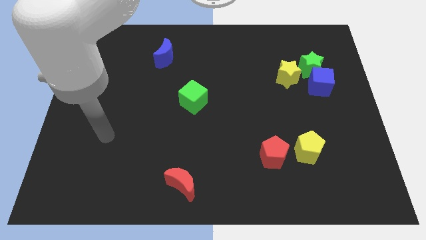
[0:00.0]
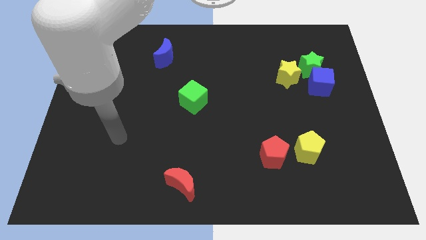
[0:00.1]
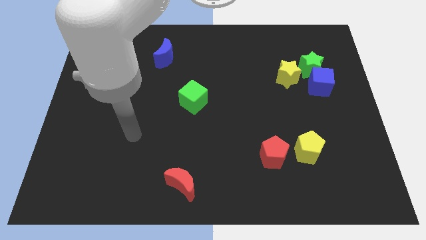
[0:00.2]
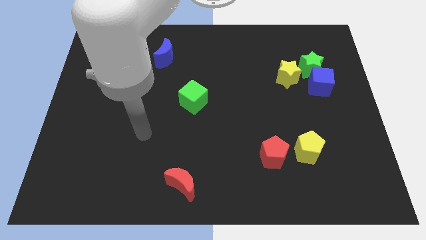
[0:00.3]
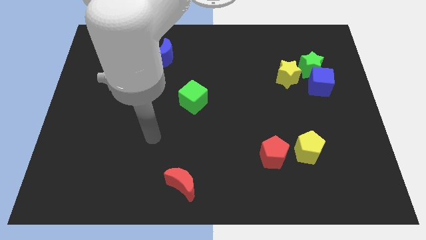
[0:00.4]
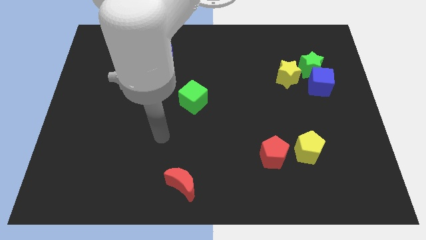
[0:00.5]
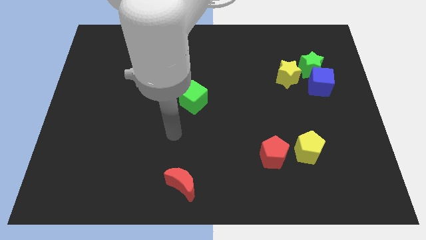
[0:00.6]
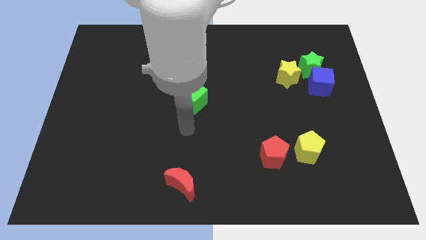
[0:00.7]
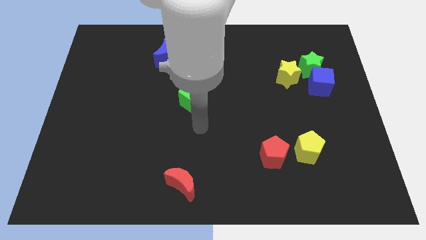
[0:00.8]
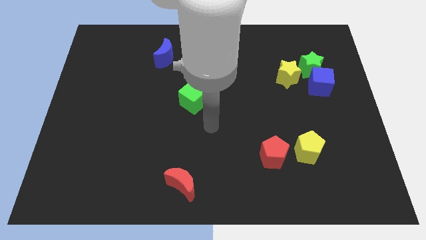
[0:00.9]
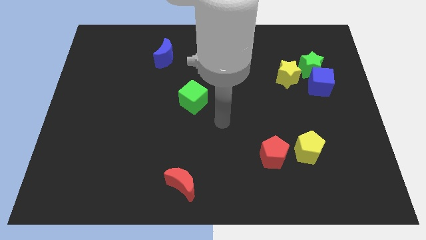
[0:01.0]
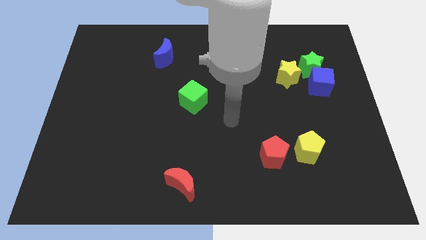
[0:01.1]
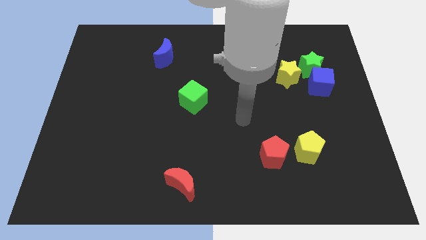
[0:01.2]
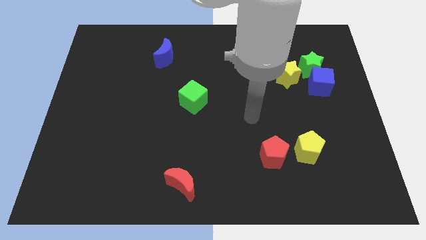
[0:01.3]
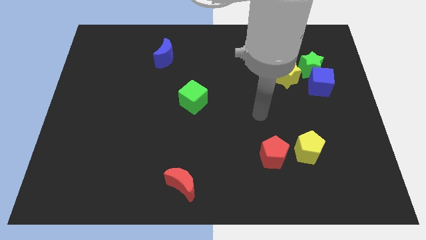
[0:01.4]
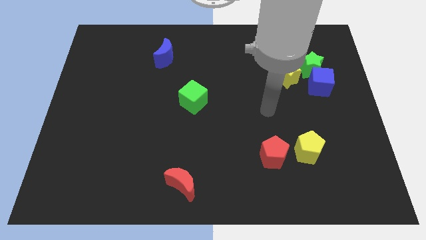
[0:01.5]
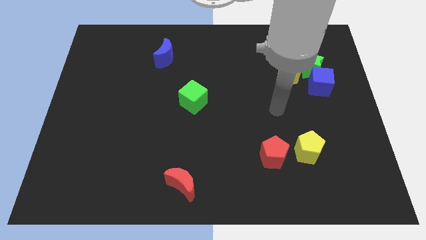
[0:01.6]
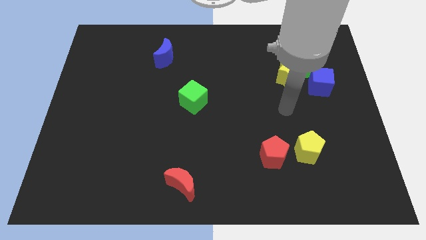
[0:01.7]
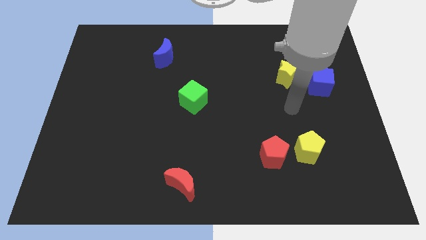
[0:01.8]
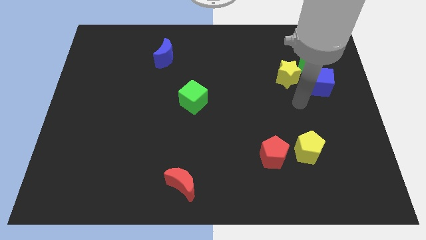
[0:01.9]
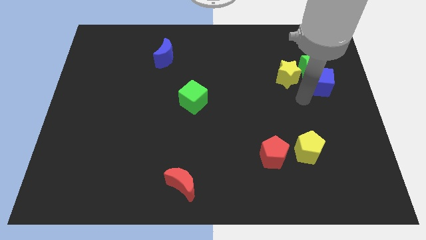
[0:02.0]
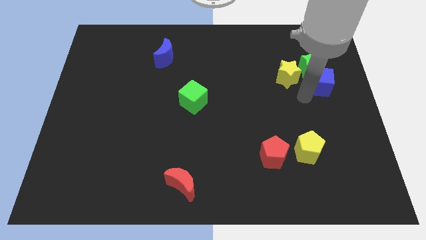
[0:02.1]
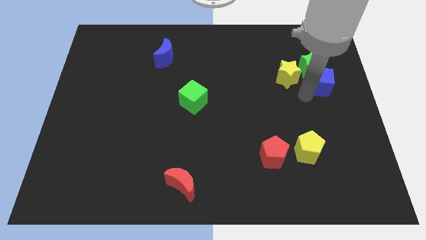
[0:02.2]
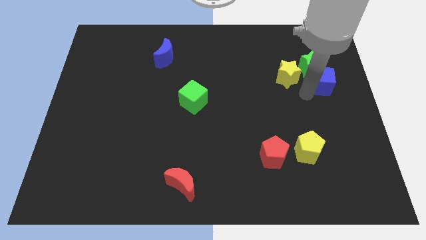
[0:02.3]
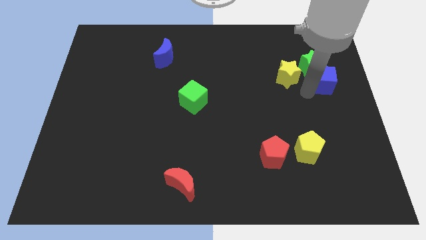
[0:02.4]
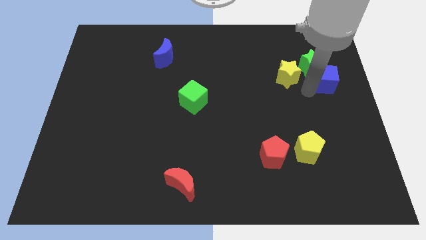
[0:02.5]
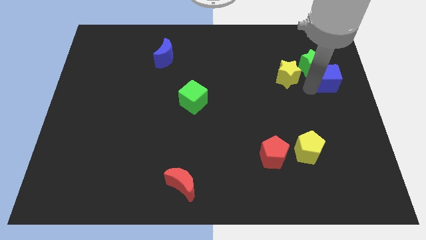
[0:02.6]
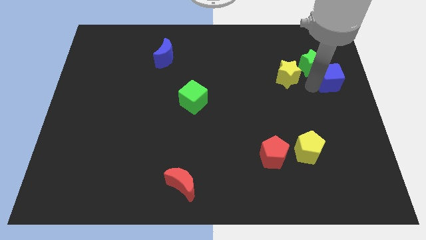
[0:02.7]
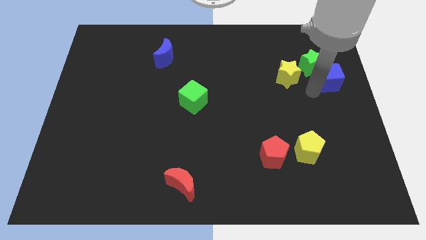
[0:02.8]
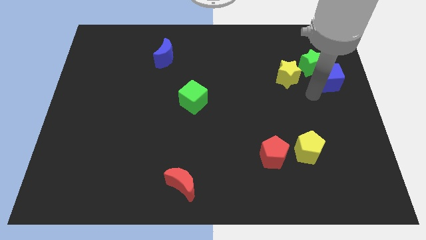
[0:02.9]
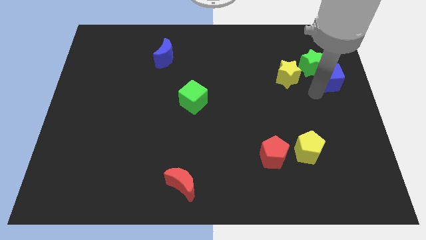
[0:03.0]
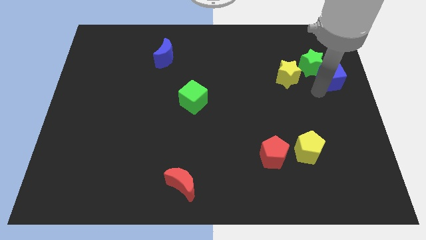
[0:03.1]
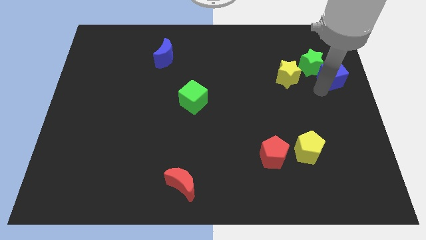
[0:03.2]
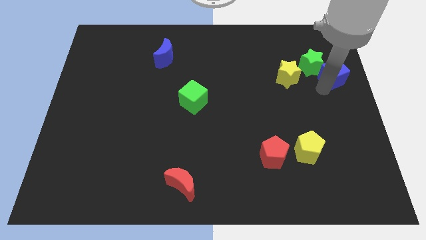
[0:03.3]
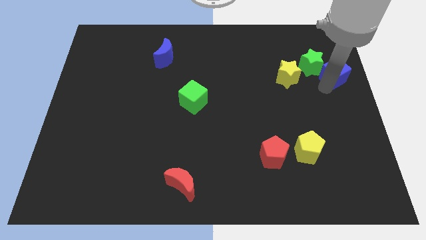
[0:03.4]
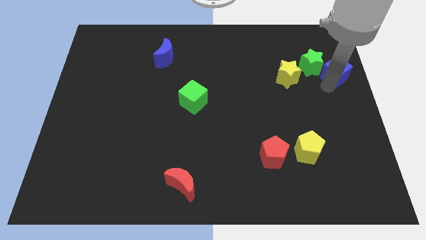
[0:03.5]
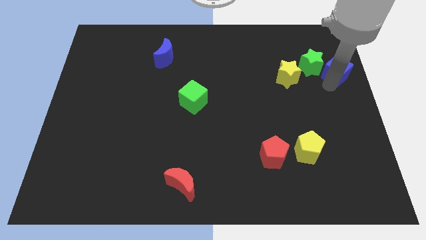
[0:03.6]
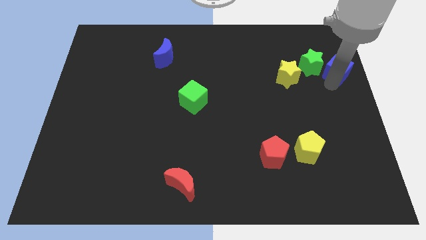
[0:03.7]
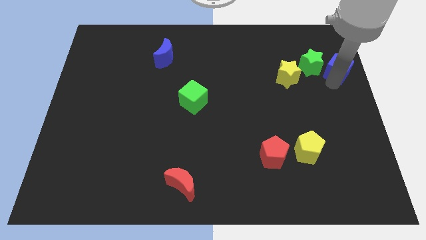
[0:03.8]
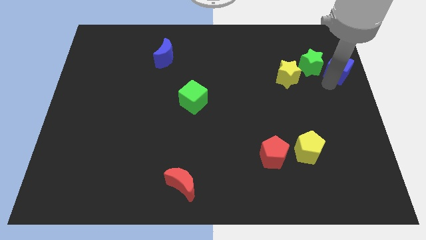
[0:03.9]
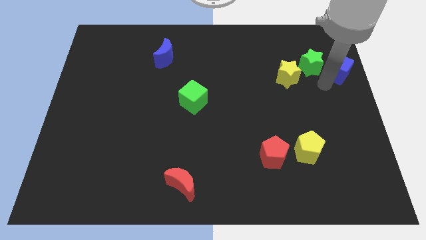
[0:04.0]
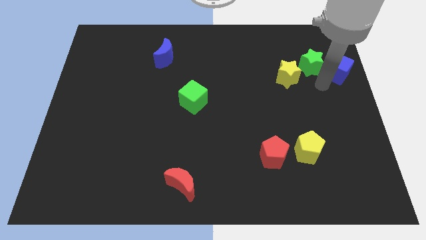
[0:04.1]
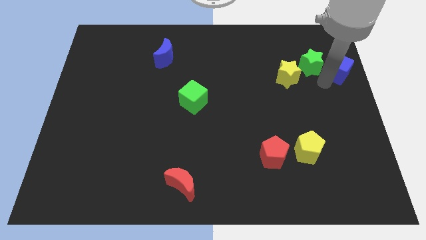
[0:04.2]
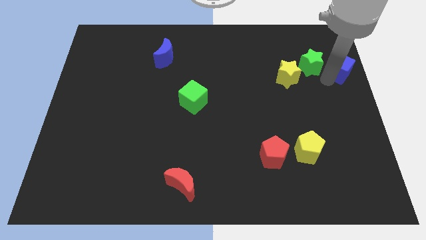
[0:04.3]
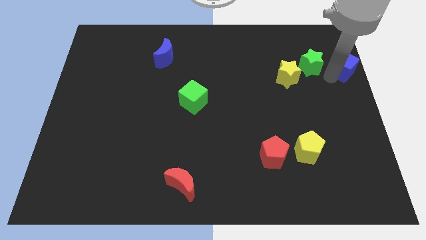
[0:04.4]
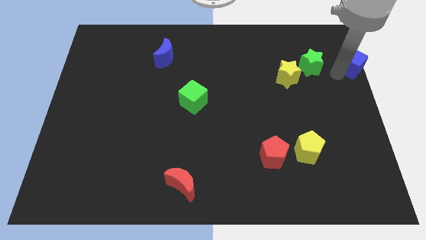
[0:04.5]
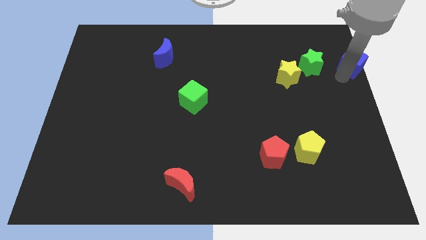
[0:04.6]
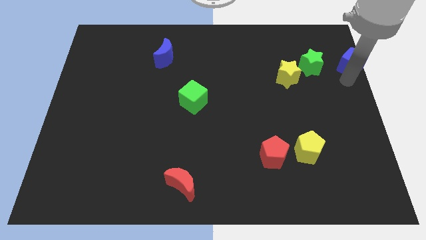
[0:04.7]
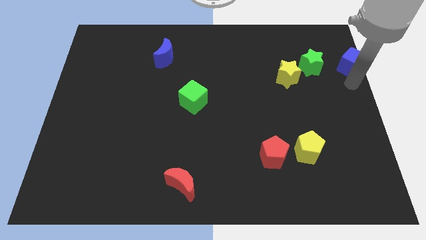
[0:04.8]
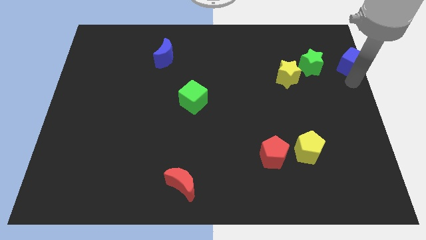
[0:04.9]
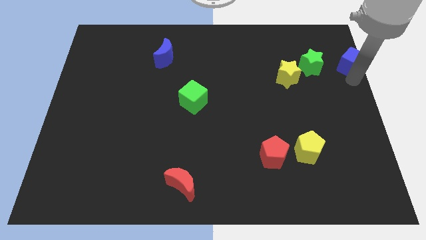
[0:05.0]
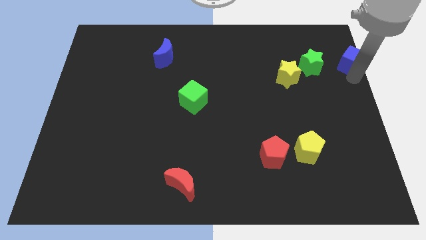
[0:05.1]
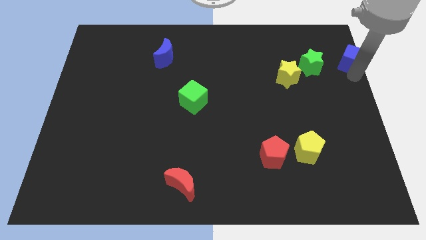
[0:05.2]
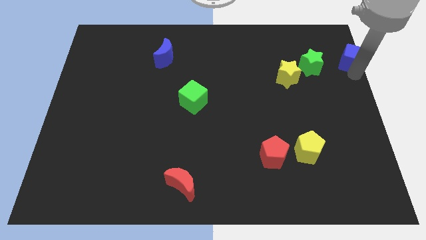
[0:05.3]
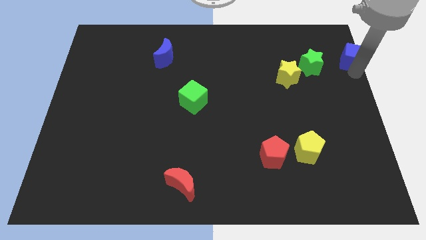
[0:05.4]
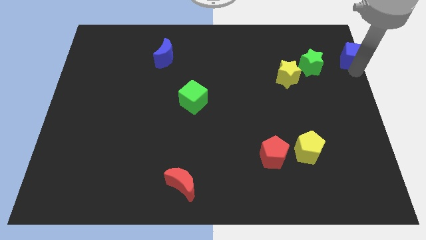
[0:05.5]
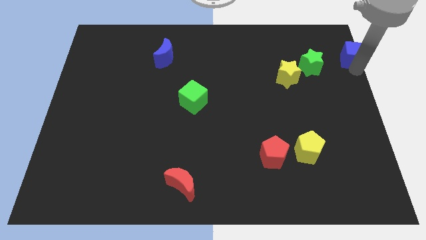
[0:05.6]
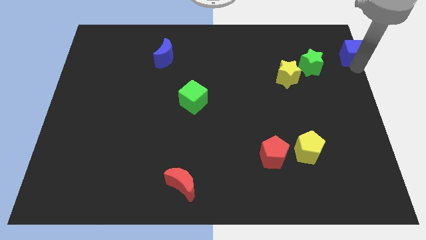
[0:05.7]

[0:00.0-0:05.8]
put the blue cube to the top right of the board
